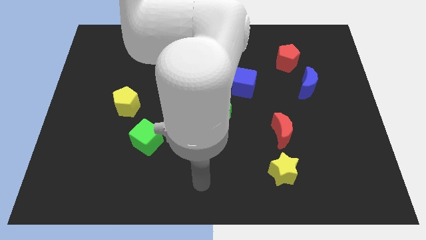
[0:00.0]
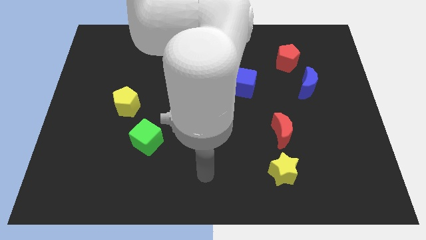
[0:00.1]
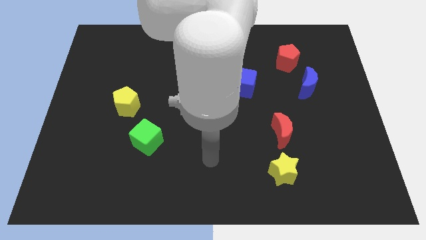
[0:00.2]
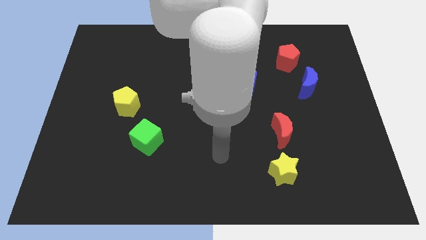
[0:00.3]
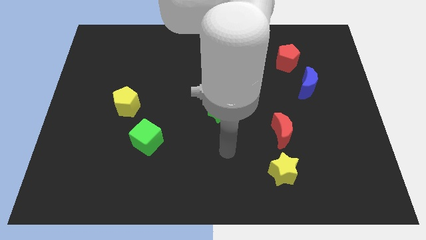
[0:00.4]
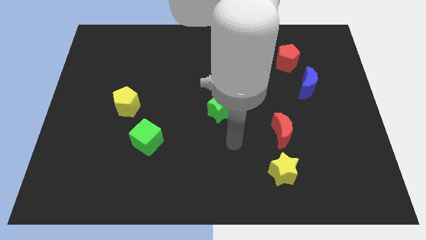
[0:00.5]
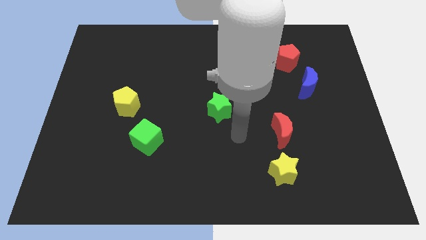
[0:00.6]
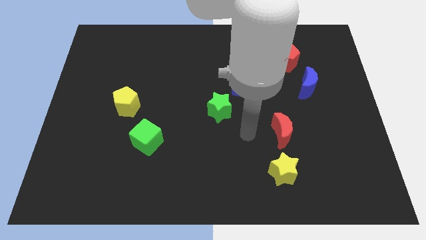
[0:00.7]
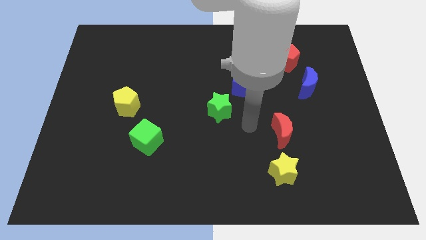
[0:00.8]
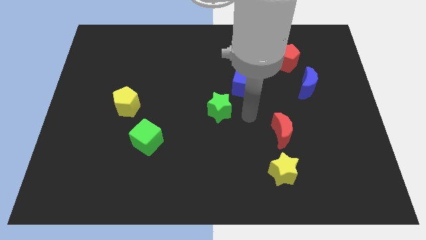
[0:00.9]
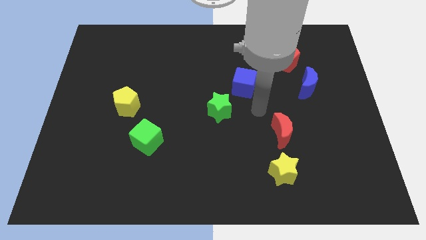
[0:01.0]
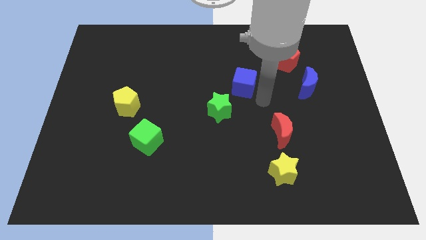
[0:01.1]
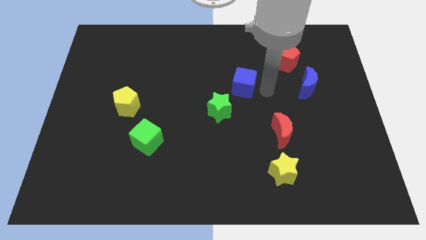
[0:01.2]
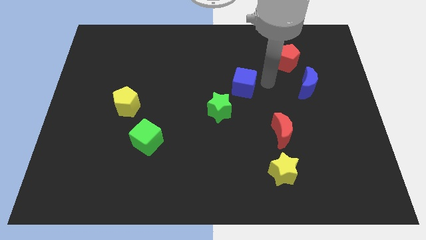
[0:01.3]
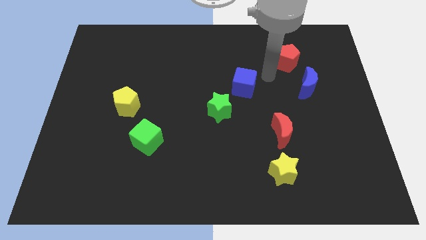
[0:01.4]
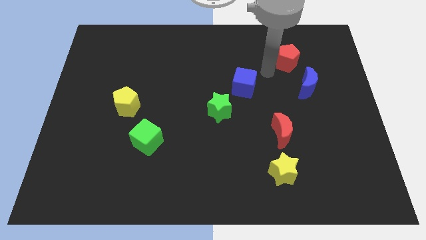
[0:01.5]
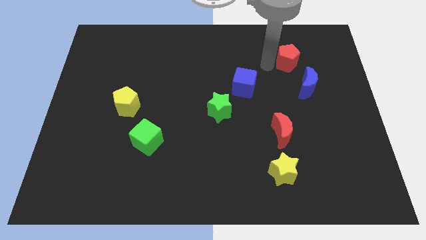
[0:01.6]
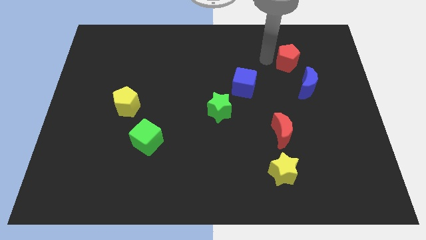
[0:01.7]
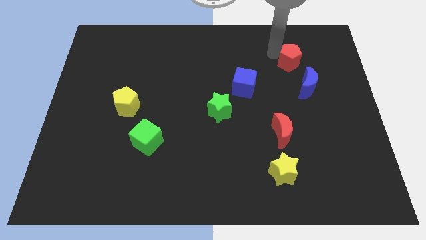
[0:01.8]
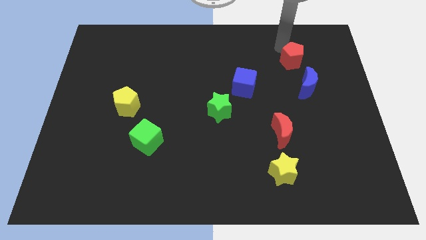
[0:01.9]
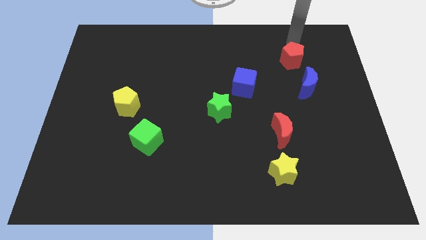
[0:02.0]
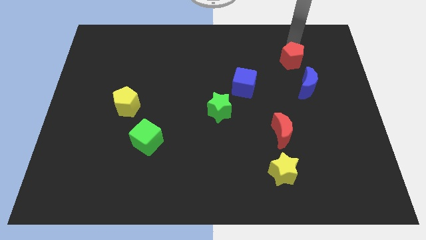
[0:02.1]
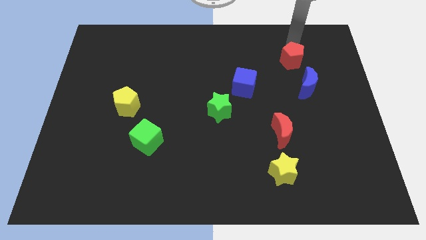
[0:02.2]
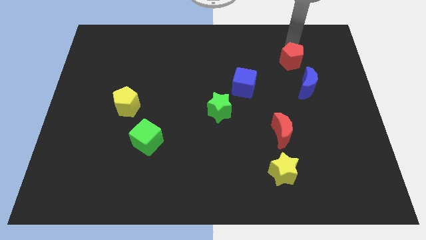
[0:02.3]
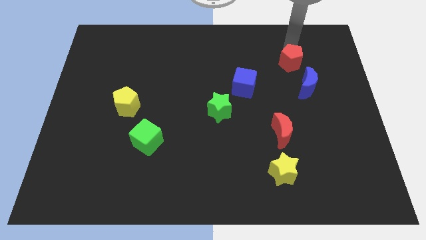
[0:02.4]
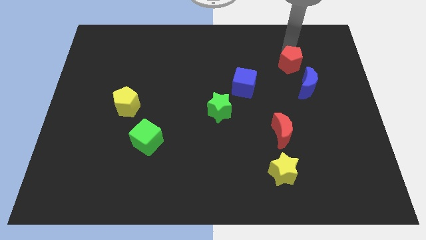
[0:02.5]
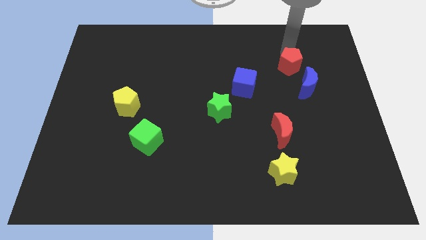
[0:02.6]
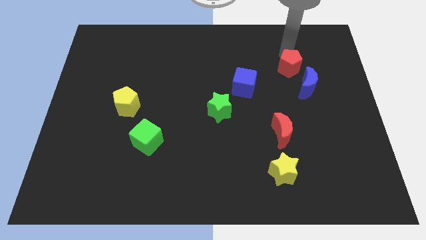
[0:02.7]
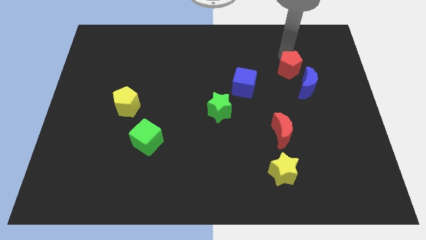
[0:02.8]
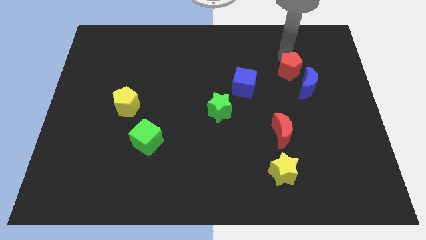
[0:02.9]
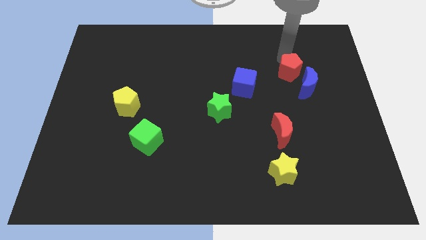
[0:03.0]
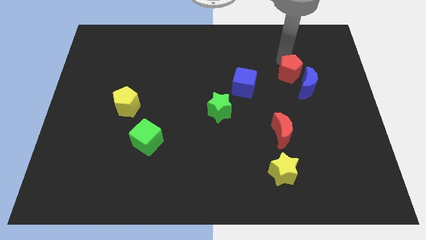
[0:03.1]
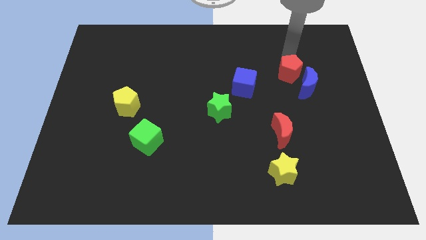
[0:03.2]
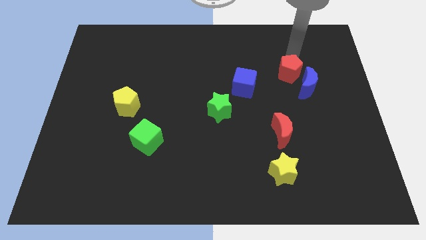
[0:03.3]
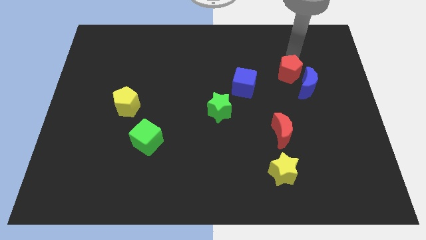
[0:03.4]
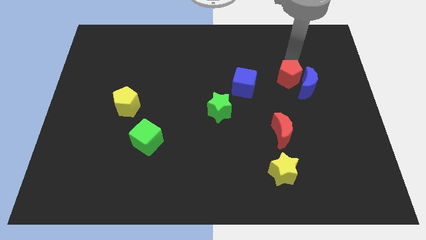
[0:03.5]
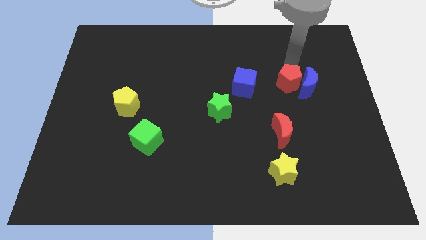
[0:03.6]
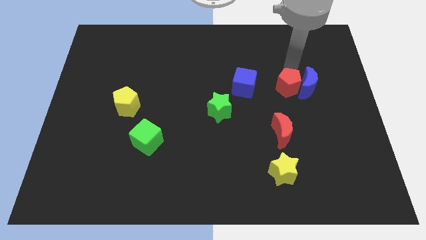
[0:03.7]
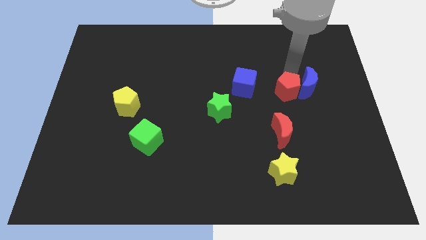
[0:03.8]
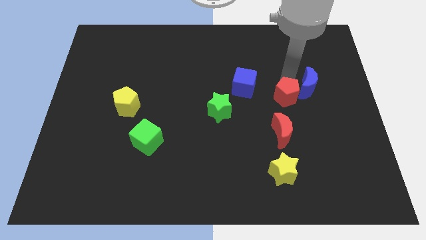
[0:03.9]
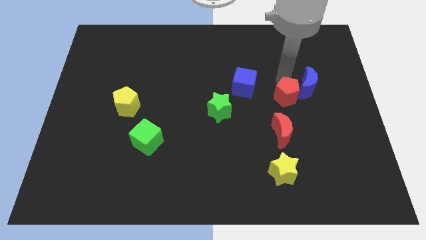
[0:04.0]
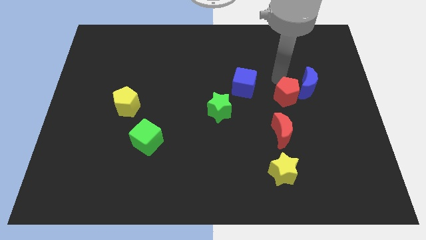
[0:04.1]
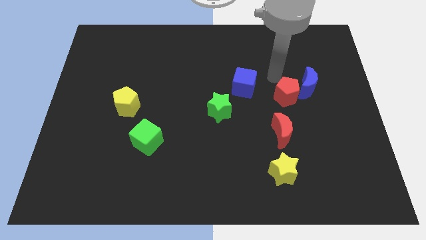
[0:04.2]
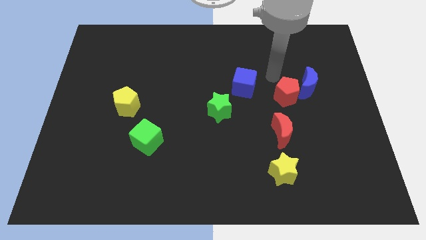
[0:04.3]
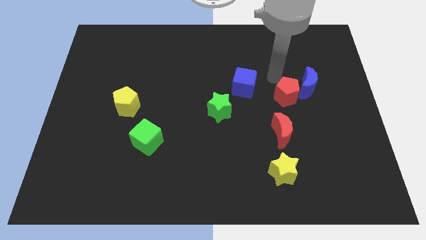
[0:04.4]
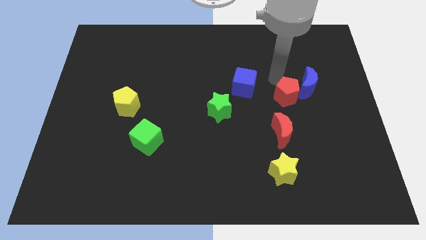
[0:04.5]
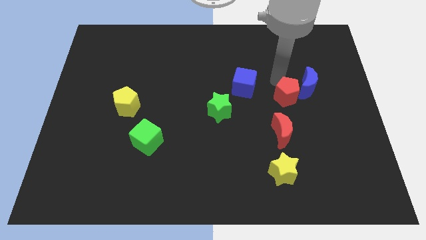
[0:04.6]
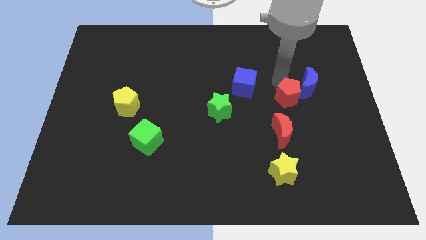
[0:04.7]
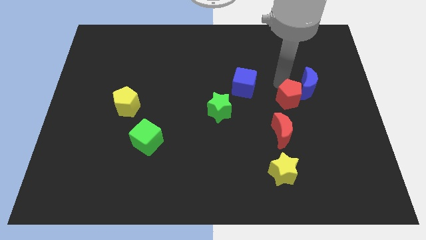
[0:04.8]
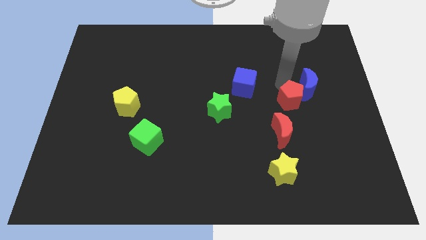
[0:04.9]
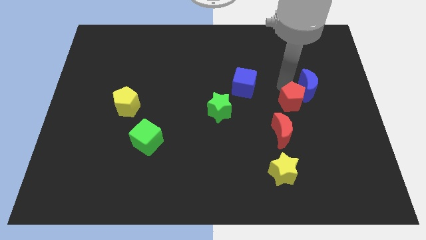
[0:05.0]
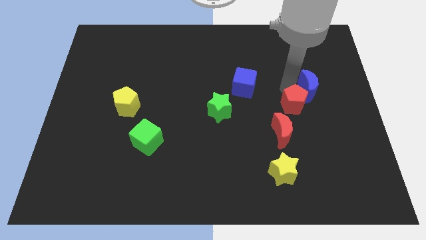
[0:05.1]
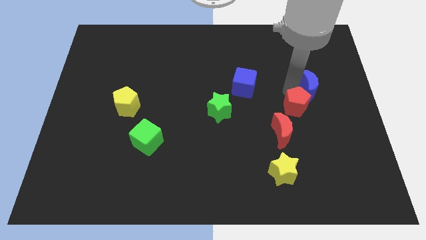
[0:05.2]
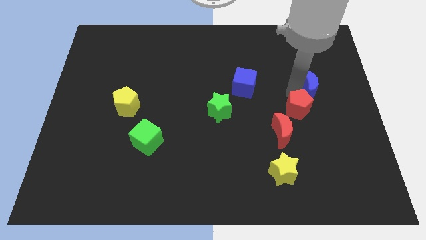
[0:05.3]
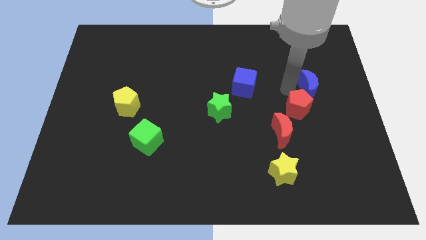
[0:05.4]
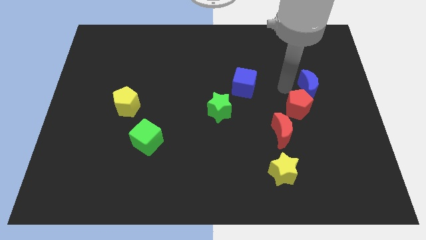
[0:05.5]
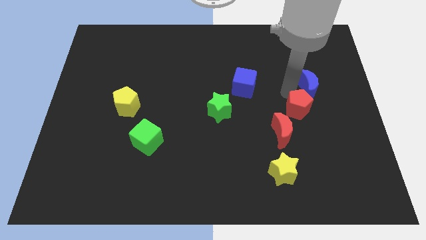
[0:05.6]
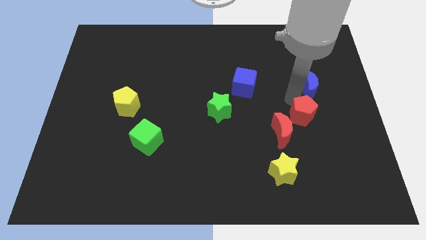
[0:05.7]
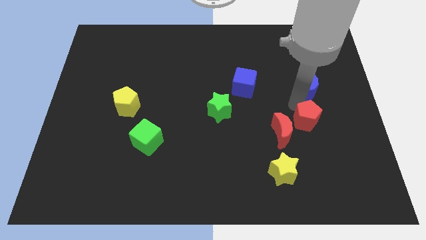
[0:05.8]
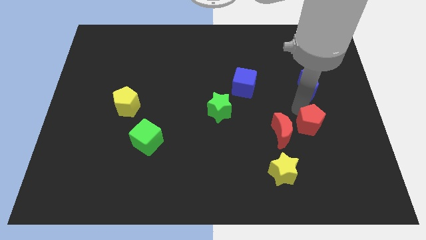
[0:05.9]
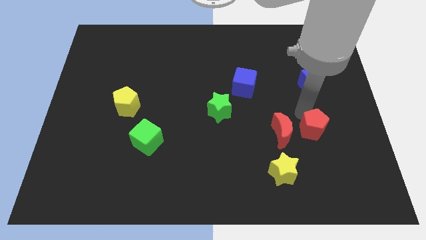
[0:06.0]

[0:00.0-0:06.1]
slide the red pentagon downwards

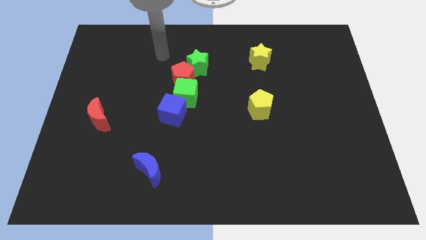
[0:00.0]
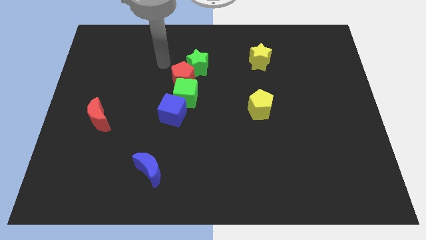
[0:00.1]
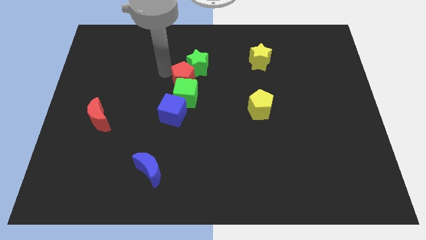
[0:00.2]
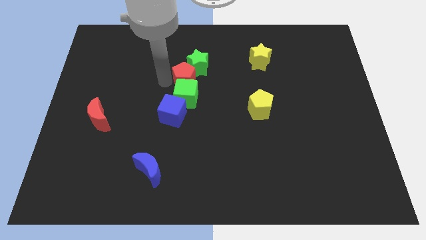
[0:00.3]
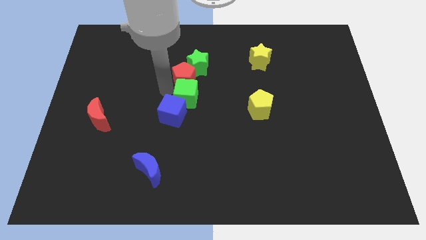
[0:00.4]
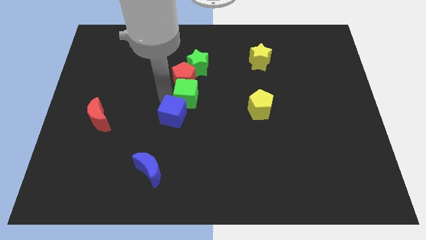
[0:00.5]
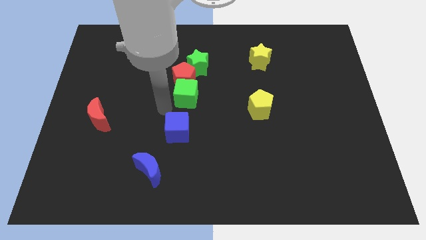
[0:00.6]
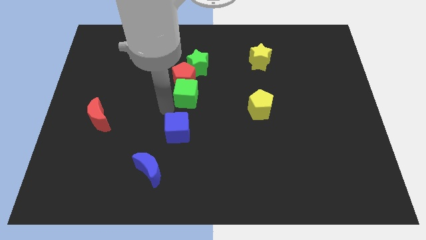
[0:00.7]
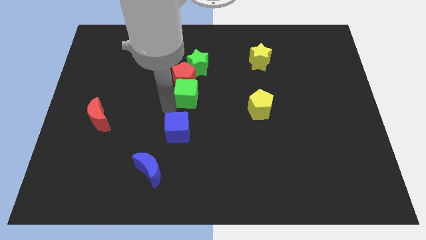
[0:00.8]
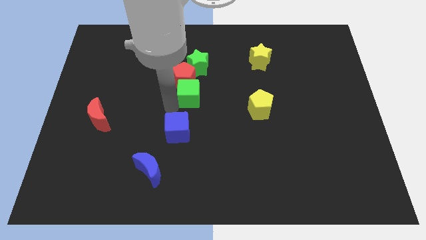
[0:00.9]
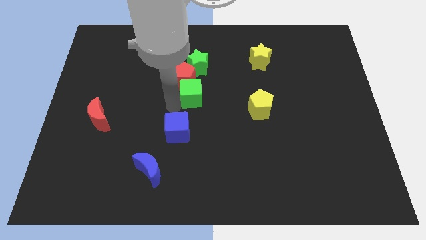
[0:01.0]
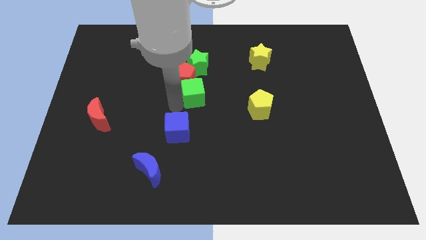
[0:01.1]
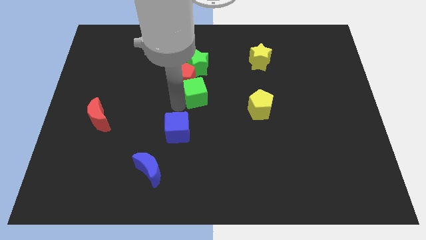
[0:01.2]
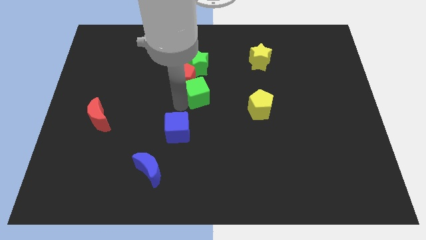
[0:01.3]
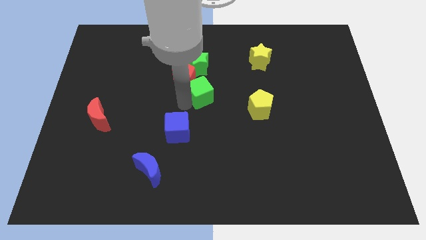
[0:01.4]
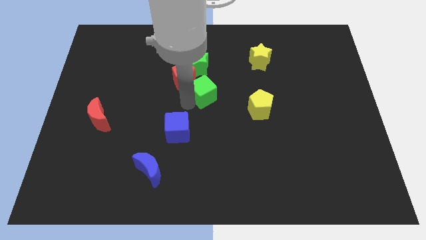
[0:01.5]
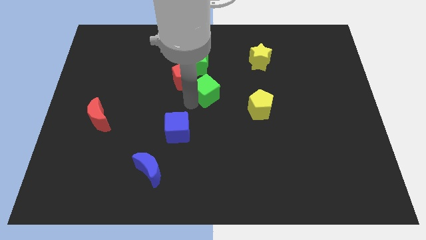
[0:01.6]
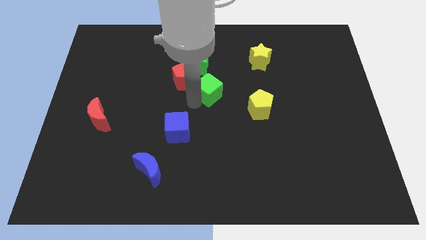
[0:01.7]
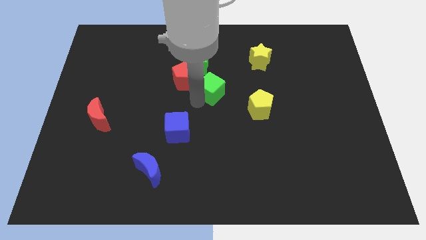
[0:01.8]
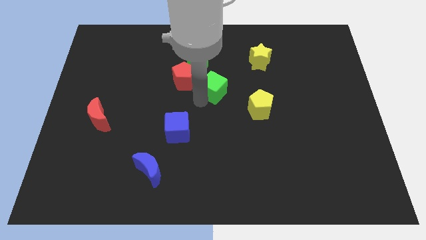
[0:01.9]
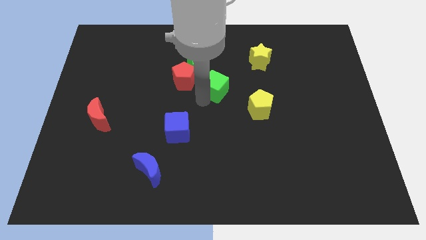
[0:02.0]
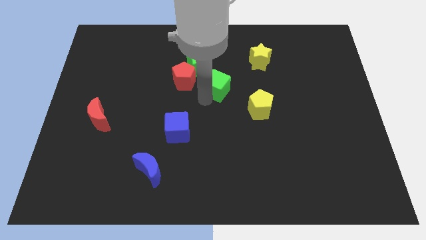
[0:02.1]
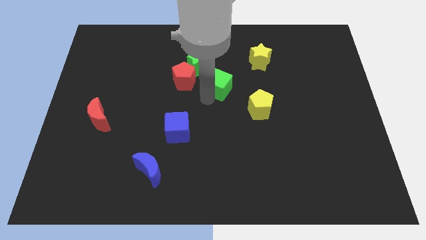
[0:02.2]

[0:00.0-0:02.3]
push the green cube slightly upwards and to the right diagonally
